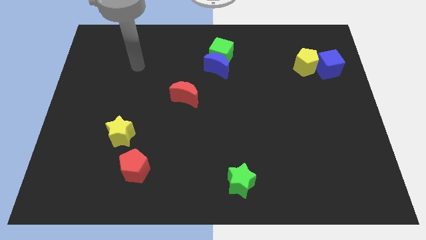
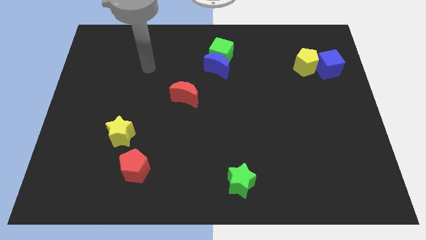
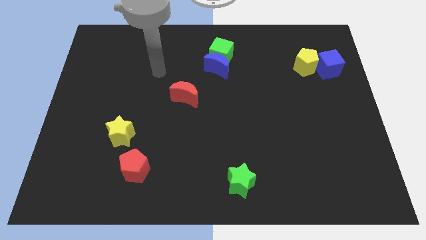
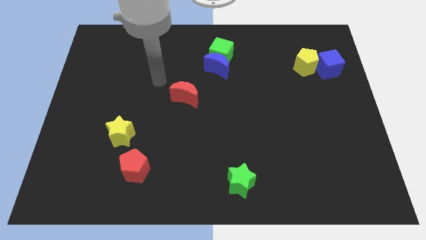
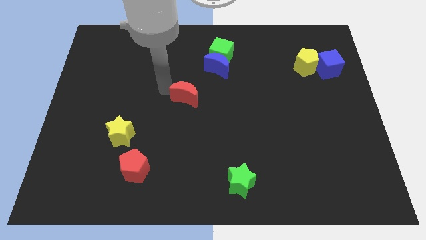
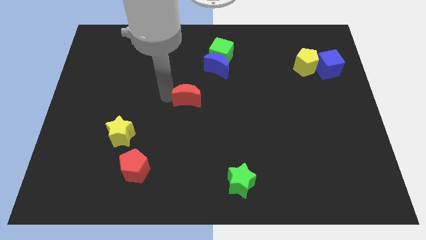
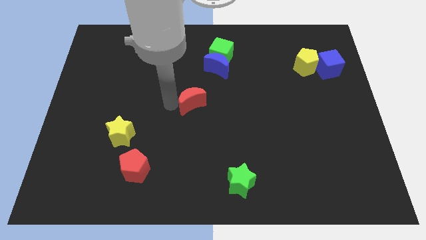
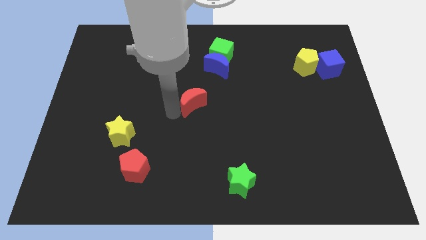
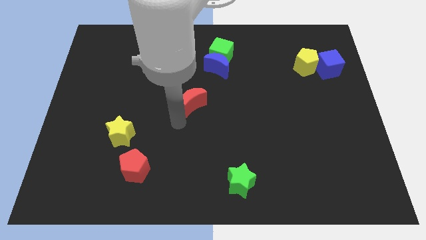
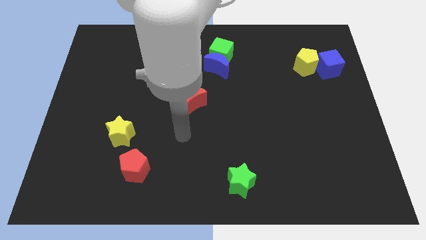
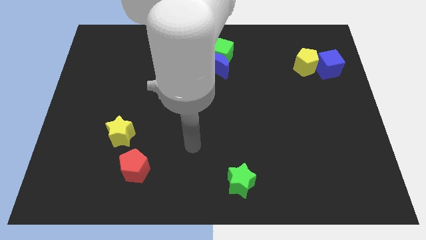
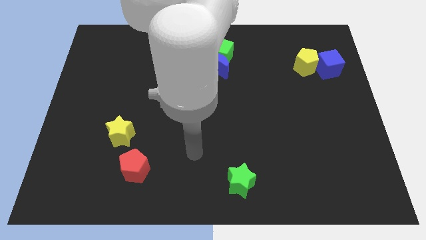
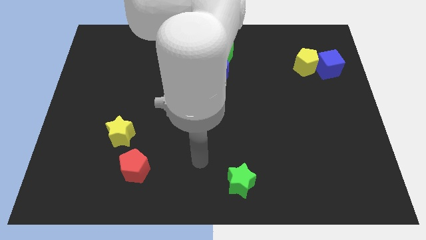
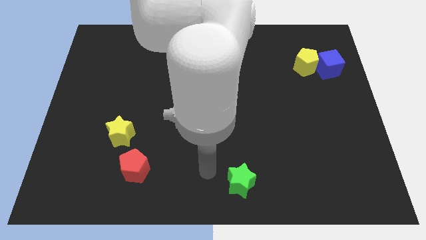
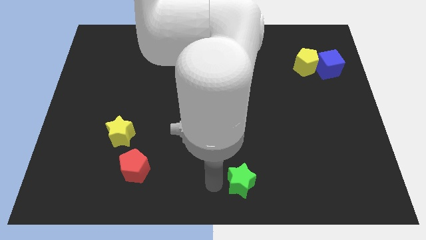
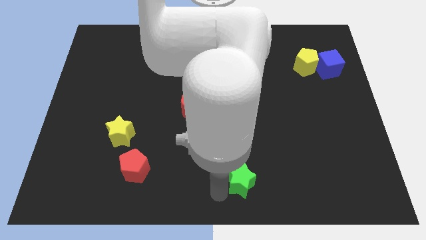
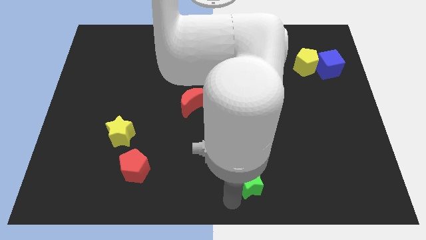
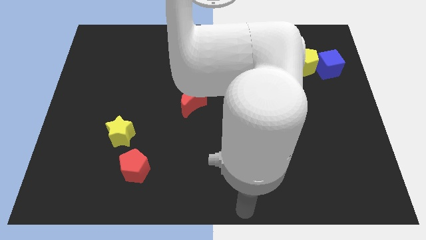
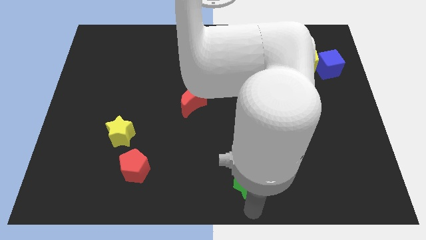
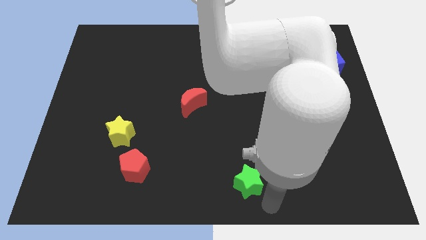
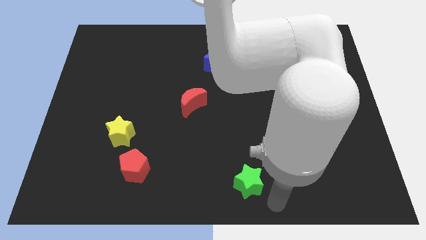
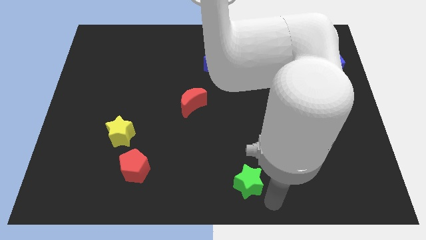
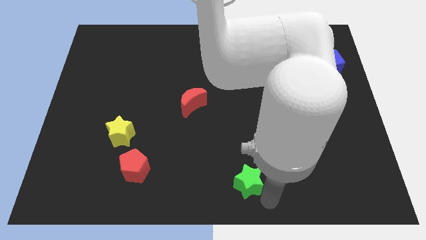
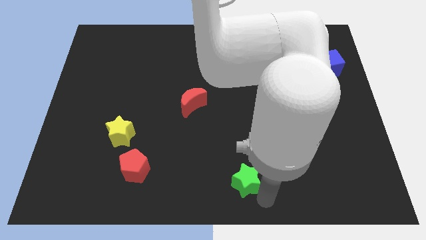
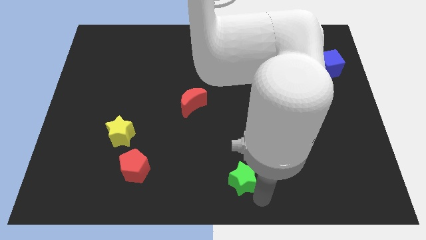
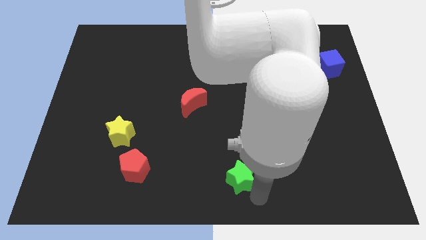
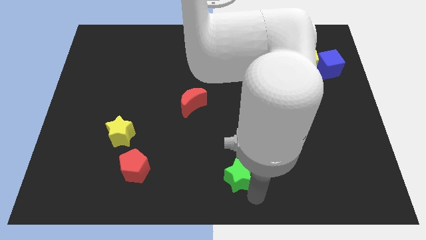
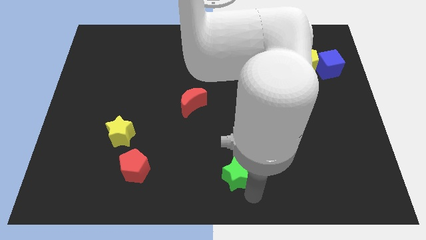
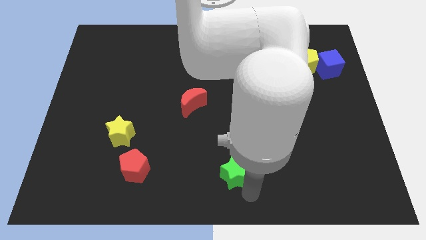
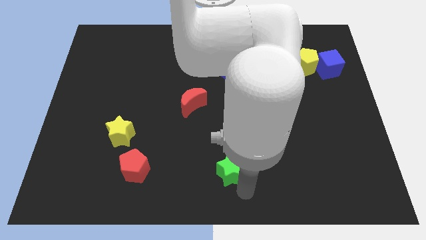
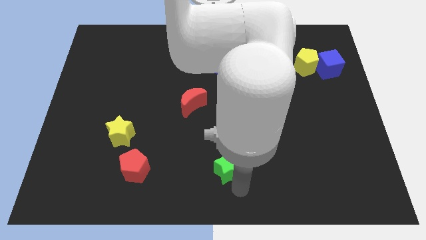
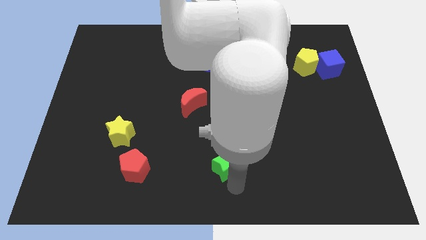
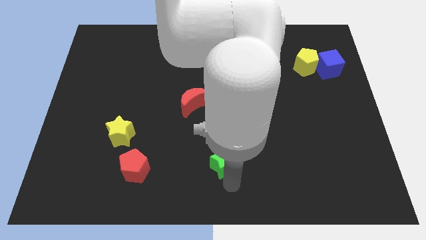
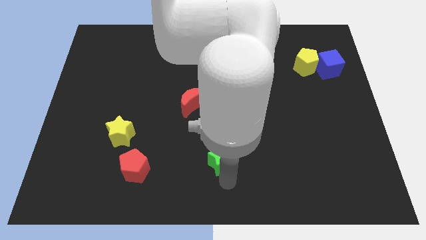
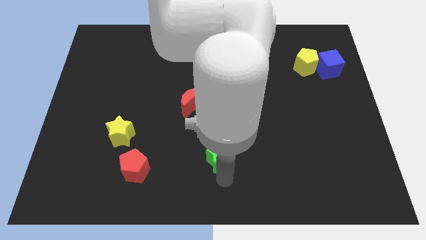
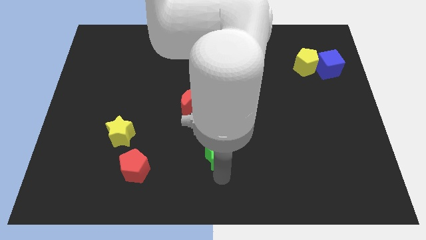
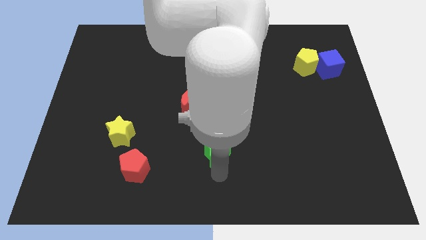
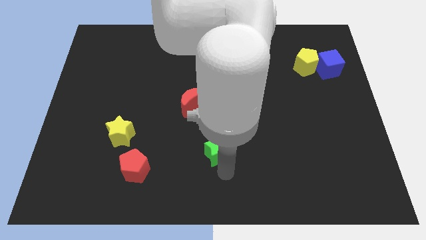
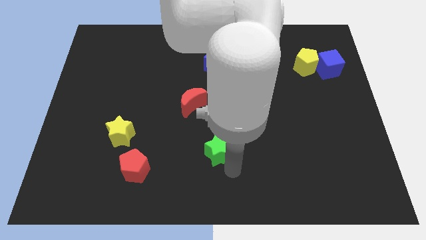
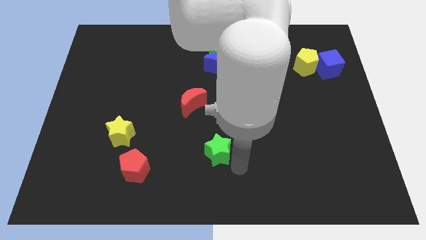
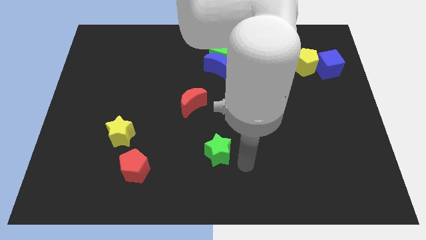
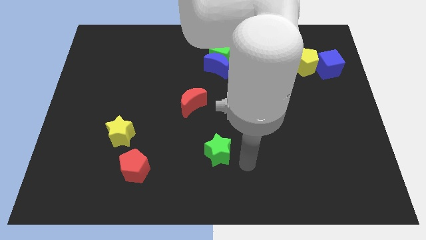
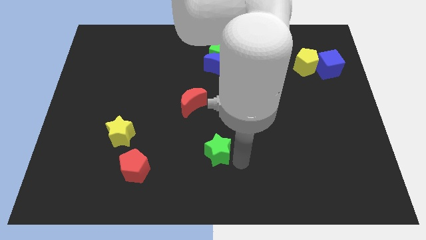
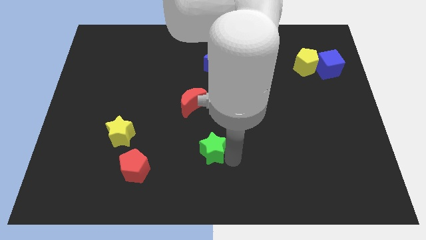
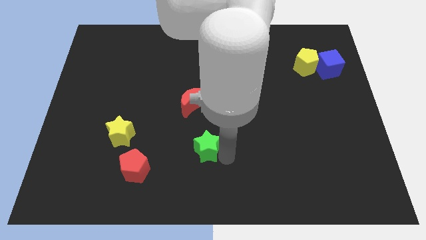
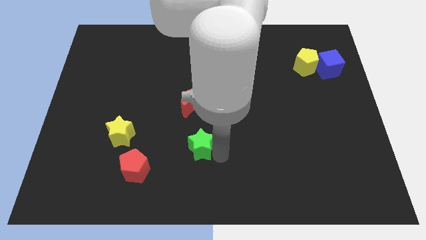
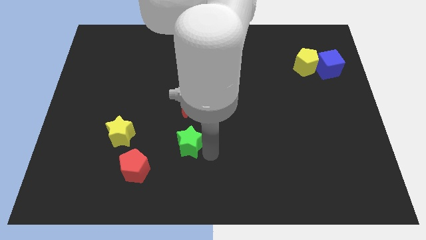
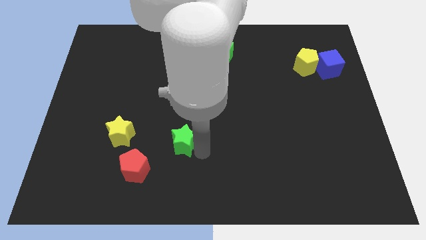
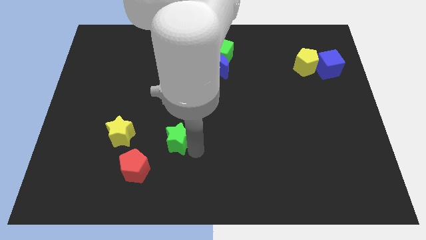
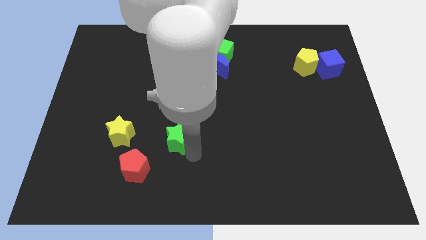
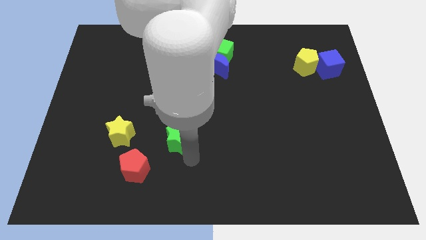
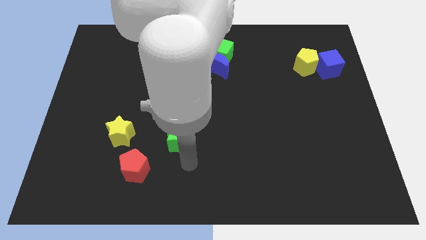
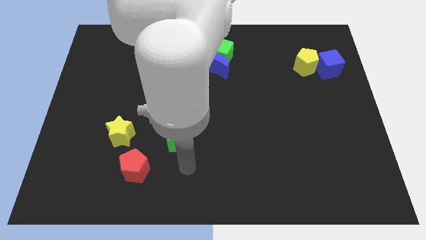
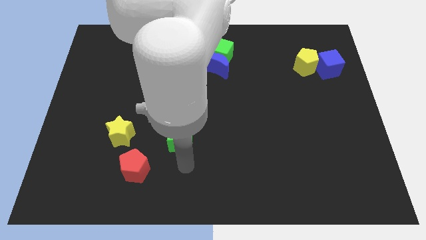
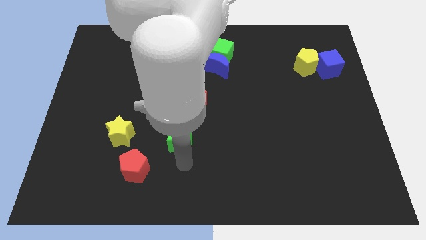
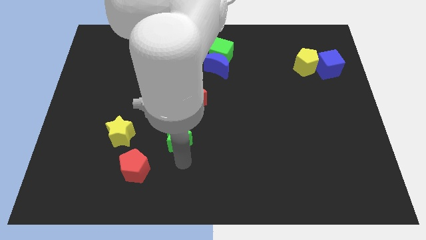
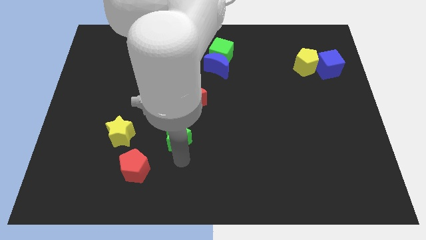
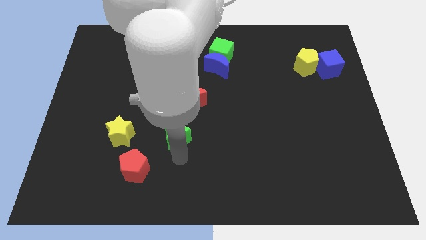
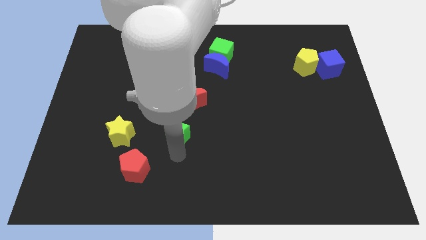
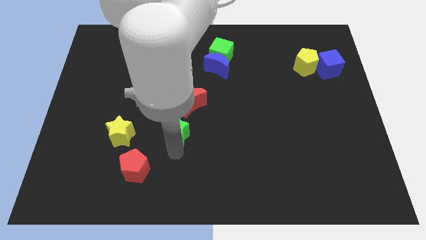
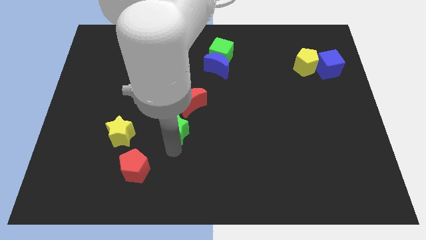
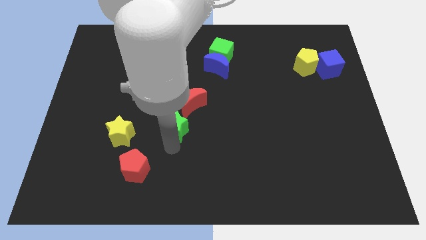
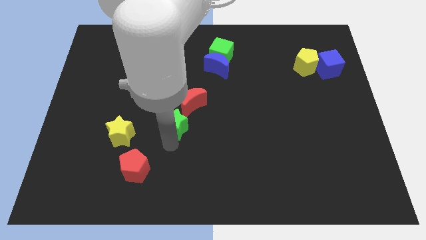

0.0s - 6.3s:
push the green star up and left diagonally

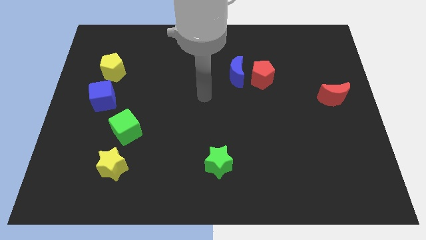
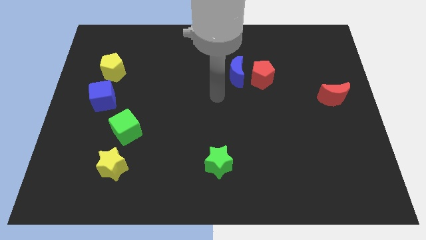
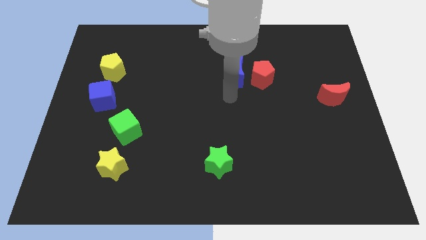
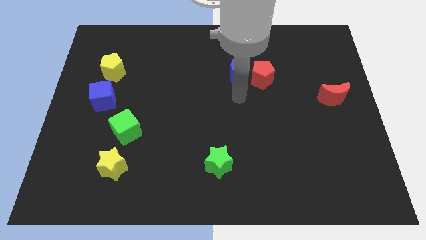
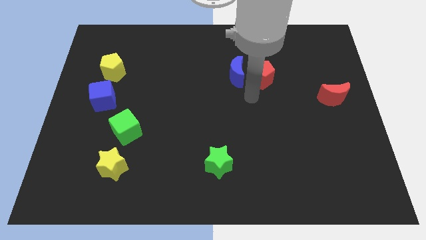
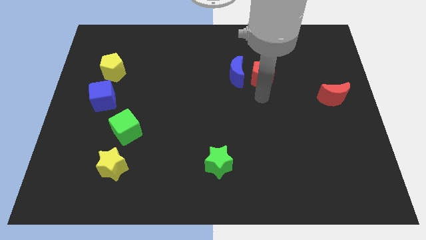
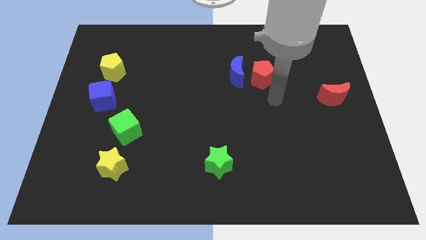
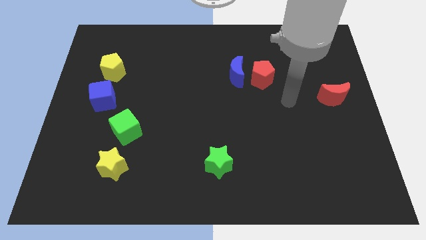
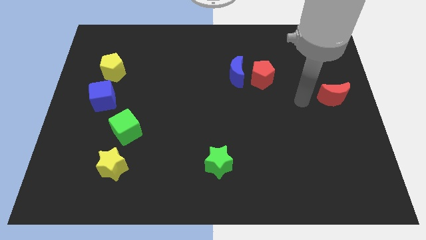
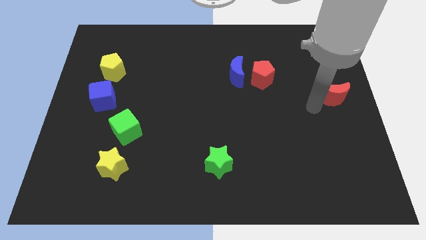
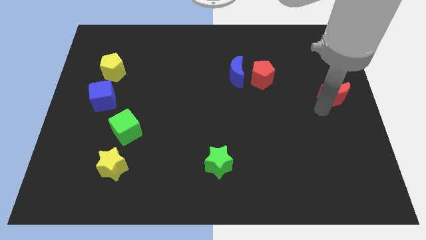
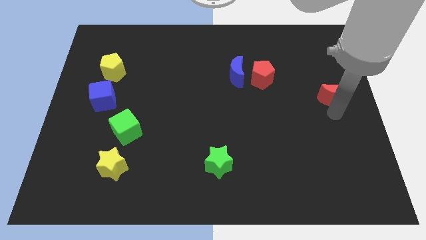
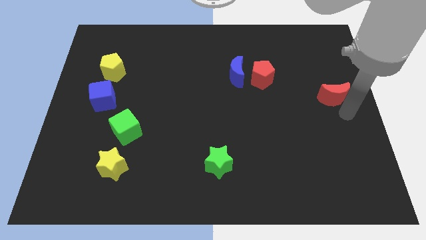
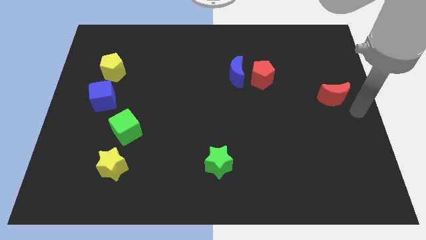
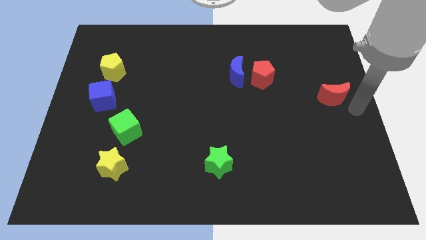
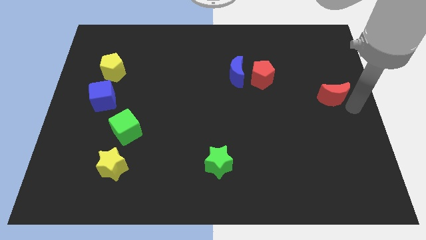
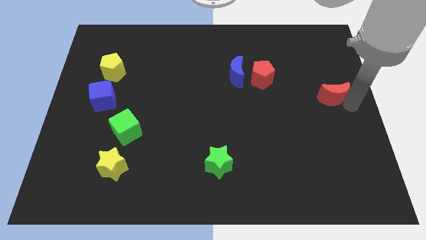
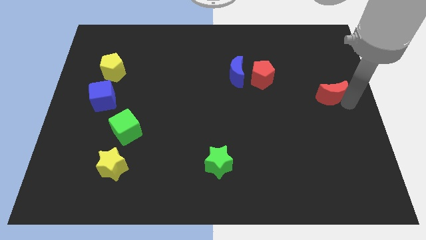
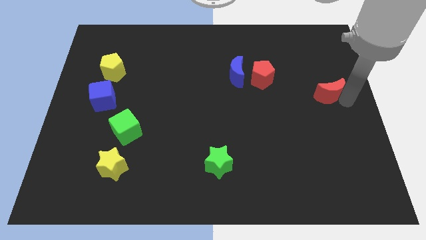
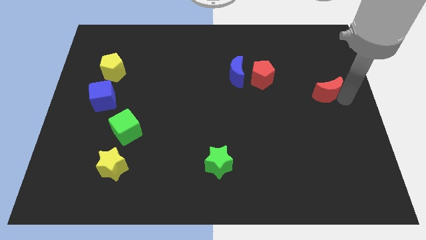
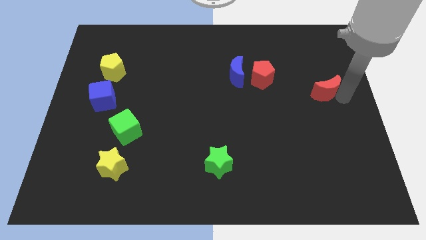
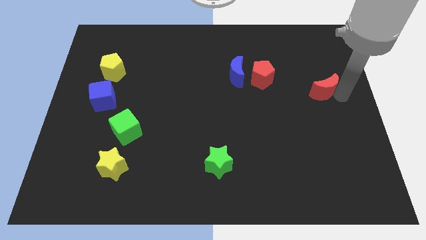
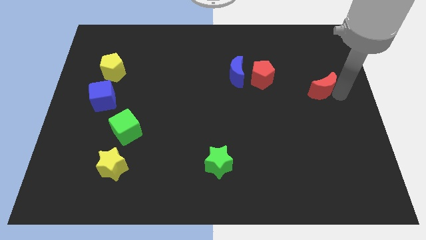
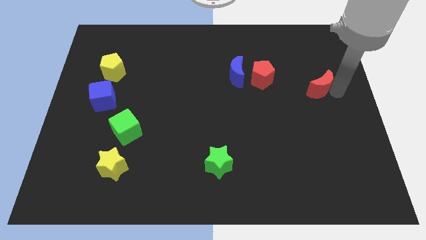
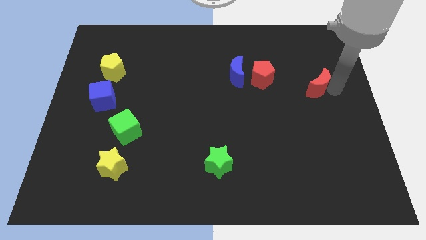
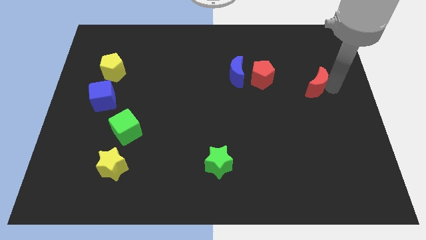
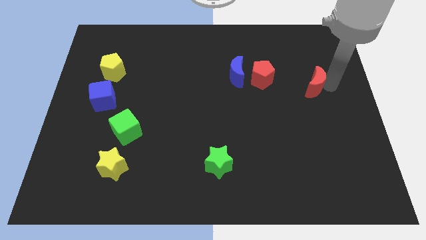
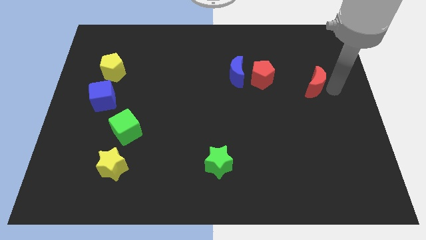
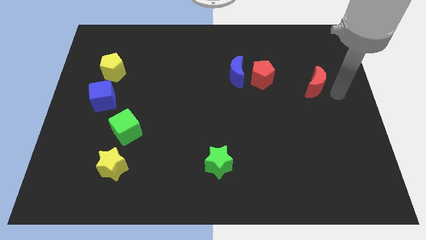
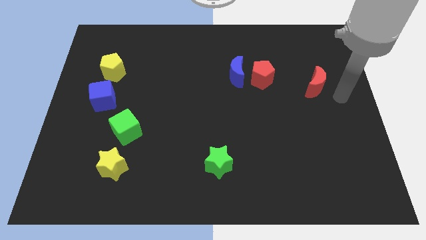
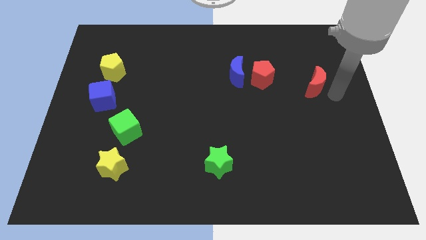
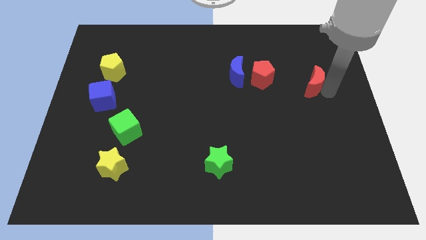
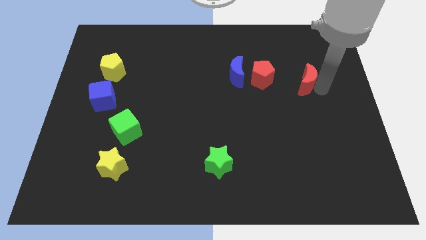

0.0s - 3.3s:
push the red moon diagonally upwards and to the left somewhat
